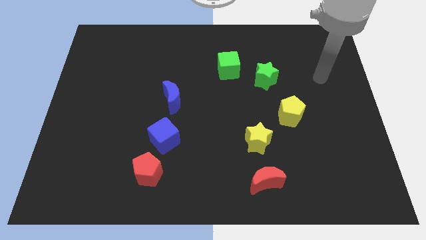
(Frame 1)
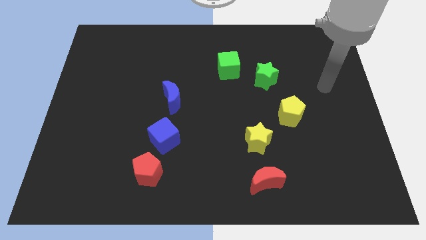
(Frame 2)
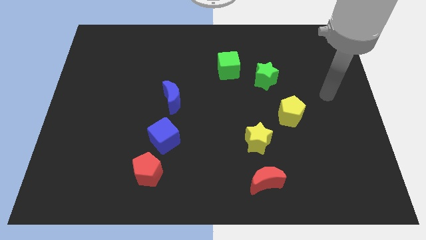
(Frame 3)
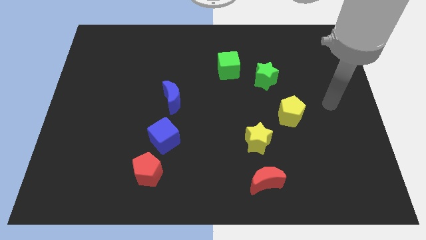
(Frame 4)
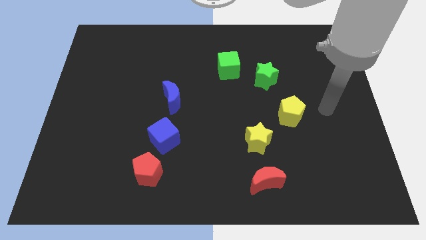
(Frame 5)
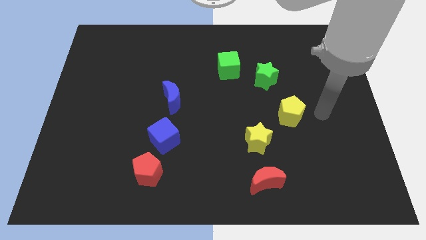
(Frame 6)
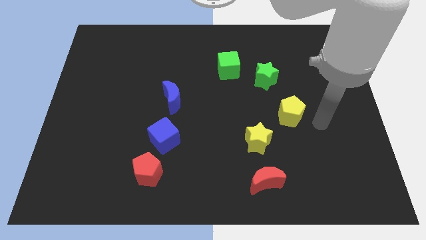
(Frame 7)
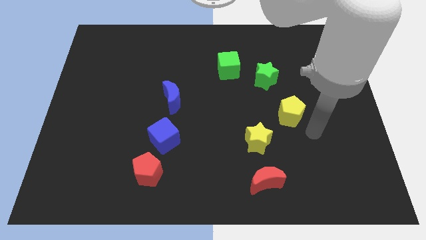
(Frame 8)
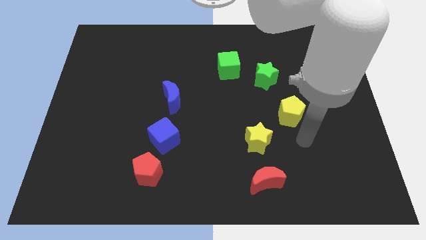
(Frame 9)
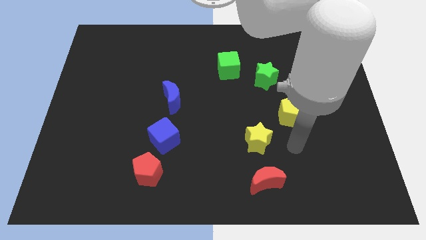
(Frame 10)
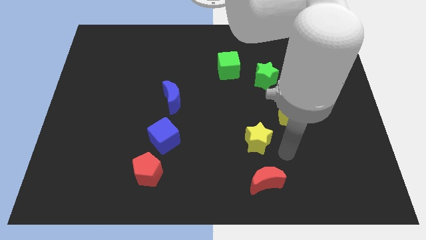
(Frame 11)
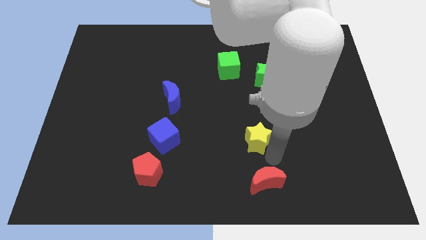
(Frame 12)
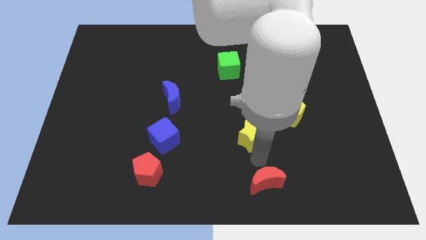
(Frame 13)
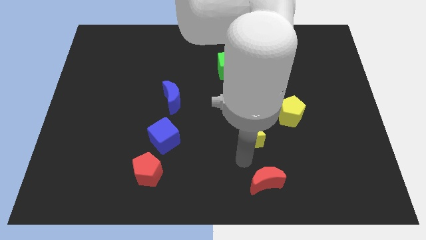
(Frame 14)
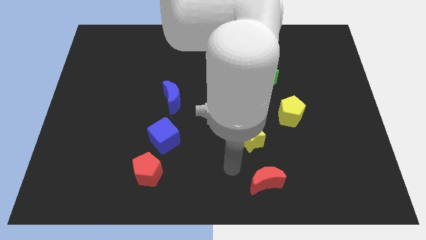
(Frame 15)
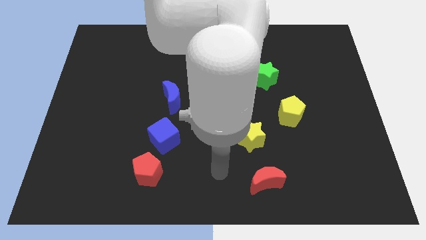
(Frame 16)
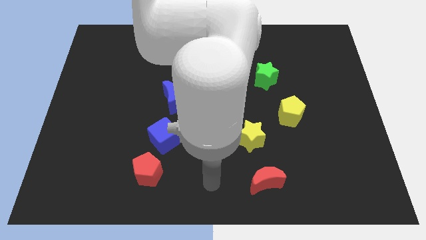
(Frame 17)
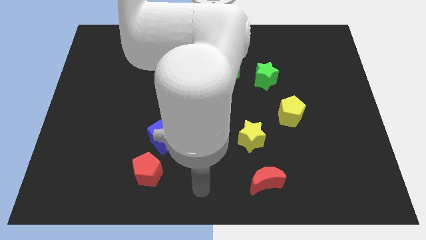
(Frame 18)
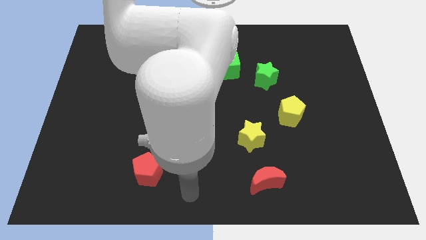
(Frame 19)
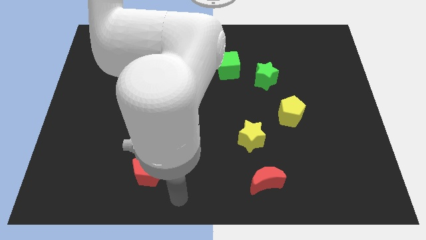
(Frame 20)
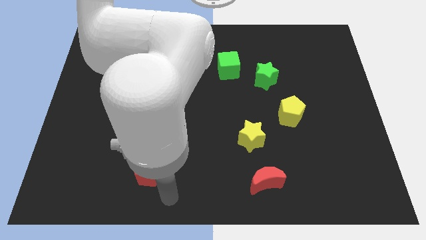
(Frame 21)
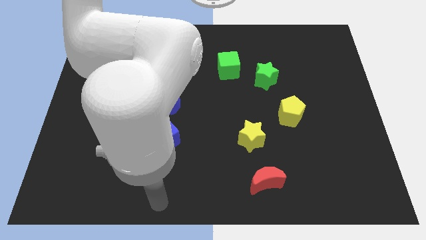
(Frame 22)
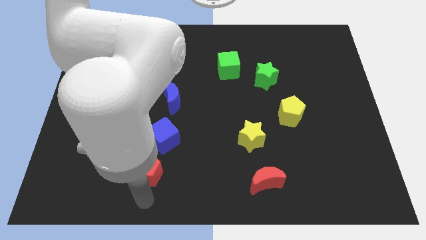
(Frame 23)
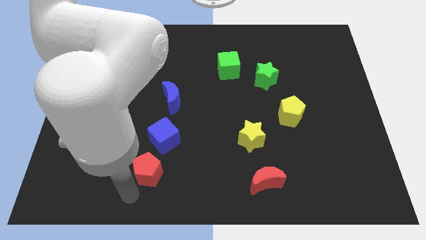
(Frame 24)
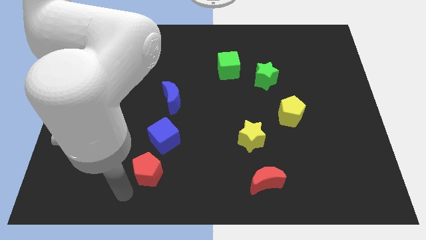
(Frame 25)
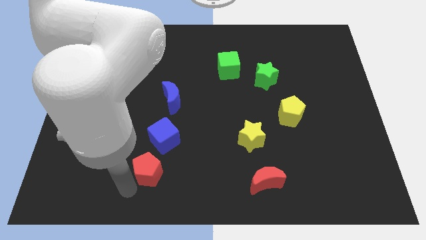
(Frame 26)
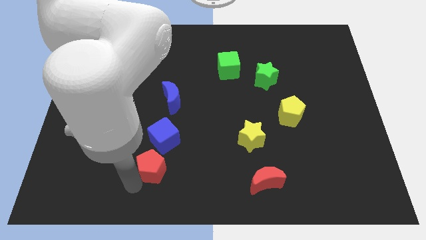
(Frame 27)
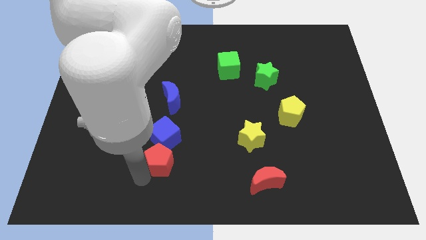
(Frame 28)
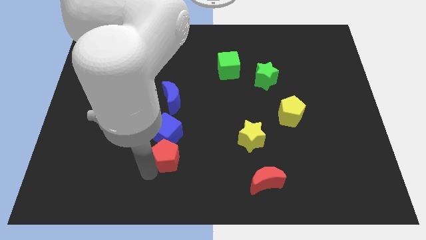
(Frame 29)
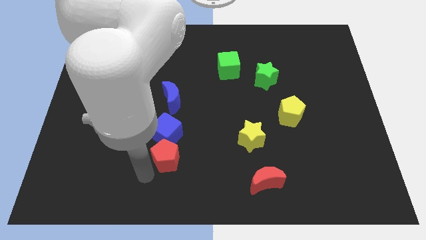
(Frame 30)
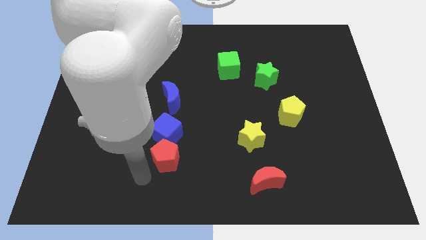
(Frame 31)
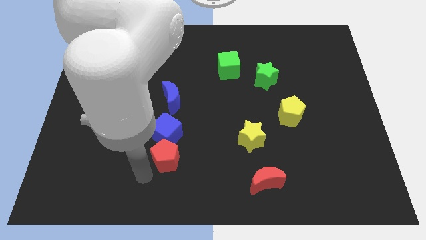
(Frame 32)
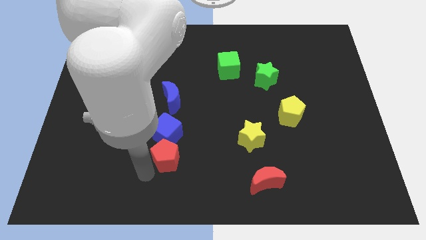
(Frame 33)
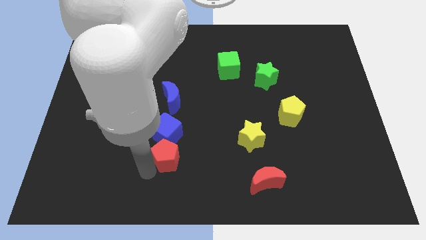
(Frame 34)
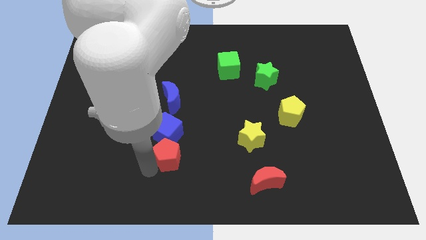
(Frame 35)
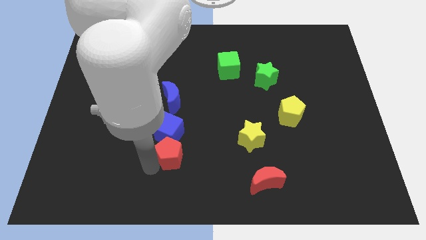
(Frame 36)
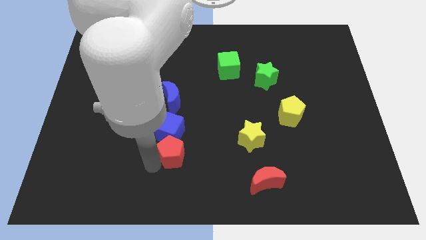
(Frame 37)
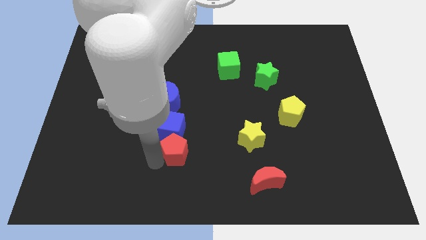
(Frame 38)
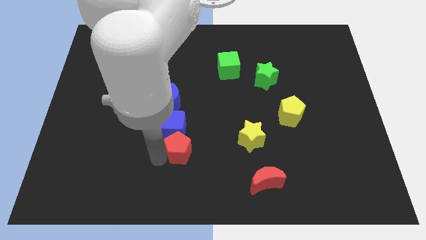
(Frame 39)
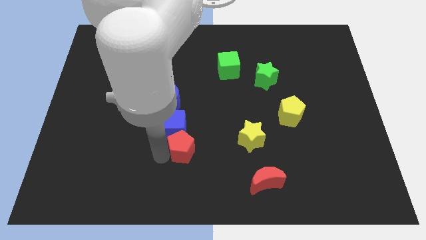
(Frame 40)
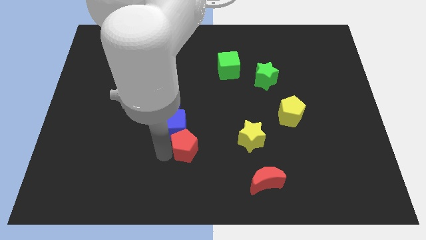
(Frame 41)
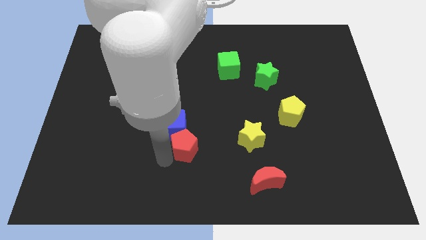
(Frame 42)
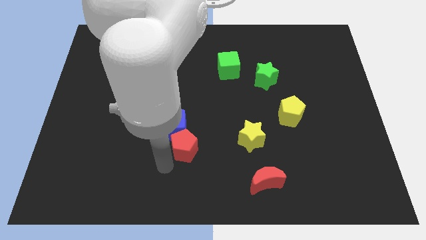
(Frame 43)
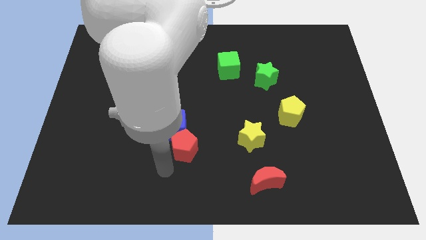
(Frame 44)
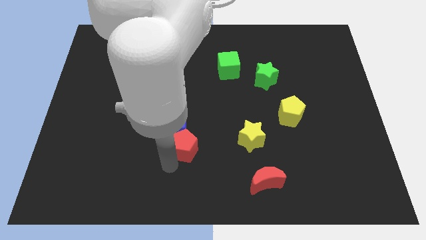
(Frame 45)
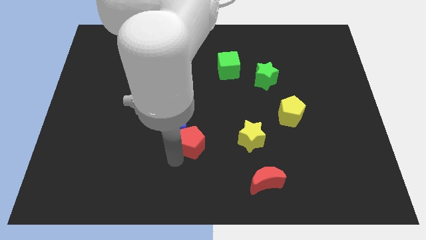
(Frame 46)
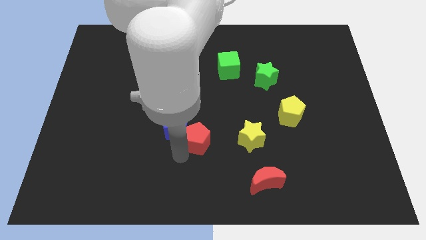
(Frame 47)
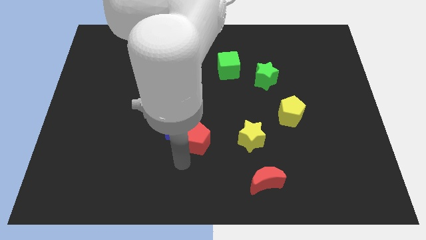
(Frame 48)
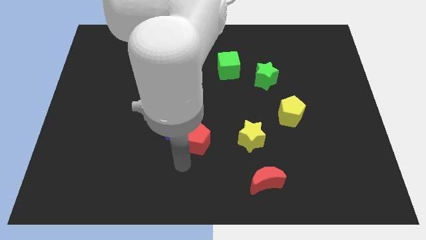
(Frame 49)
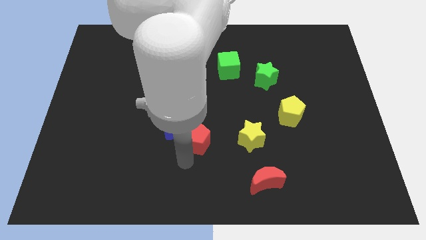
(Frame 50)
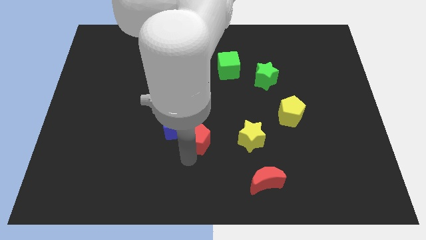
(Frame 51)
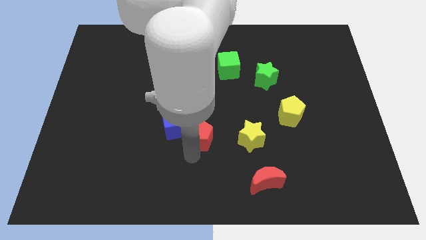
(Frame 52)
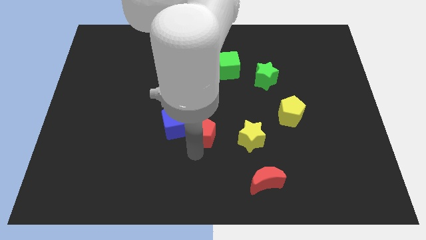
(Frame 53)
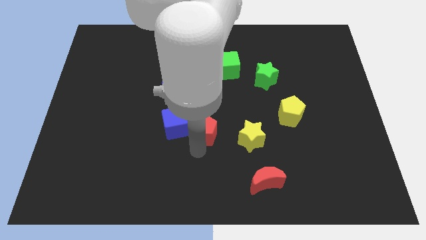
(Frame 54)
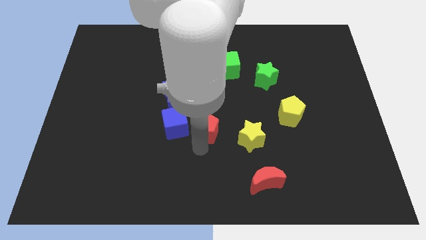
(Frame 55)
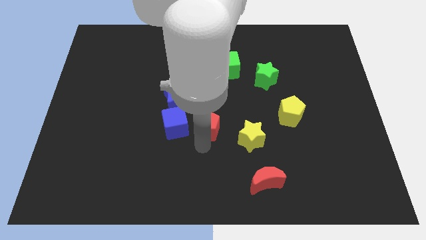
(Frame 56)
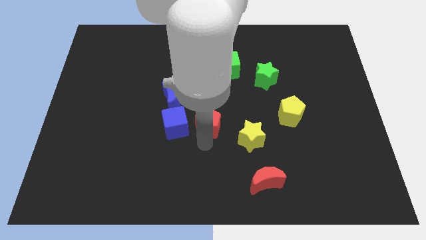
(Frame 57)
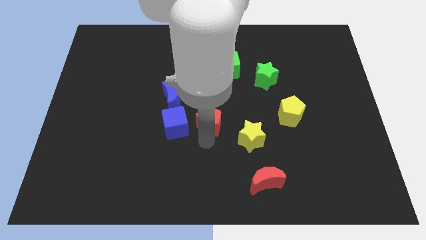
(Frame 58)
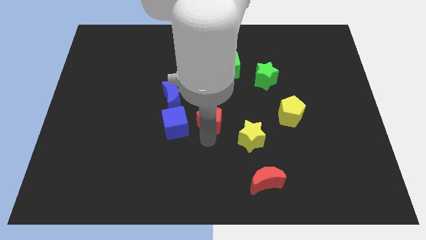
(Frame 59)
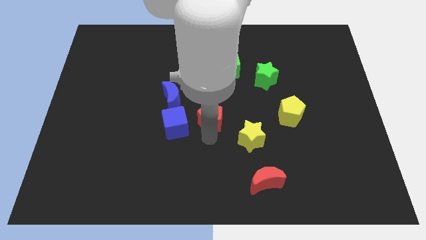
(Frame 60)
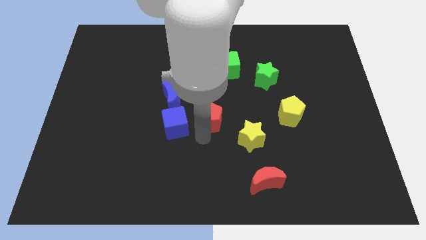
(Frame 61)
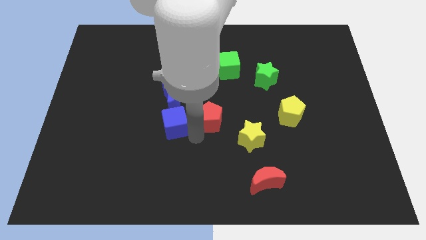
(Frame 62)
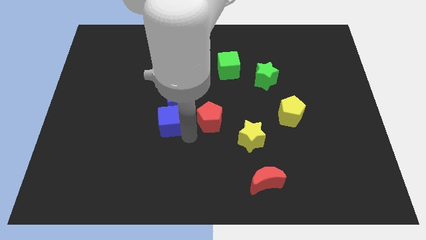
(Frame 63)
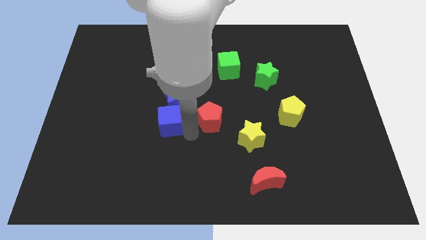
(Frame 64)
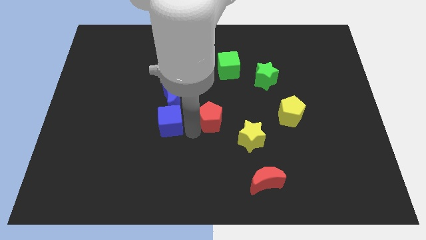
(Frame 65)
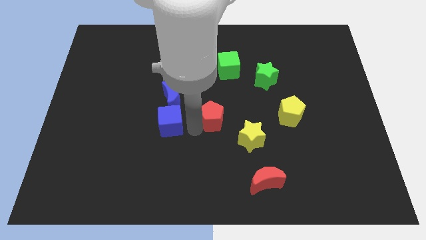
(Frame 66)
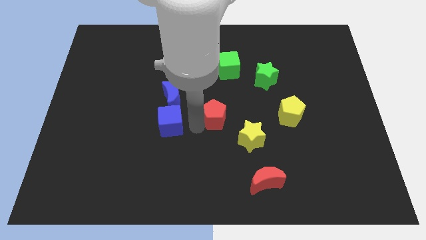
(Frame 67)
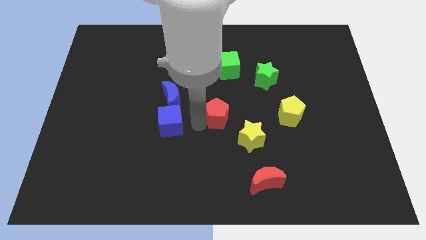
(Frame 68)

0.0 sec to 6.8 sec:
move the red pentagon upwards and right

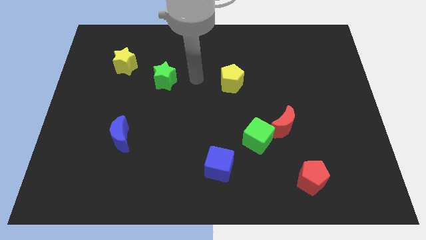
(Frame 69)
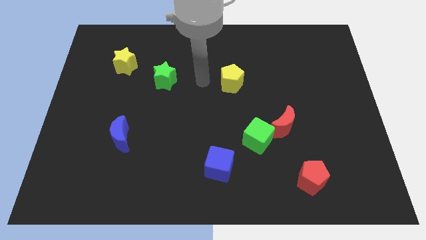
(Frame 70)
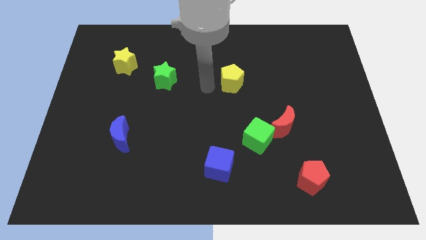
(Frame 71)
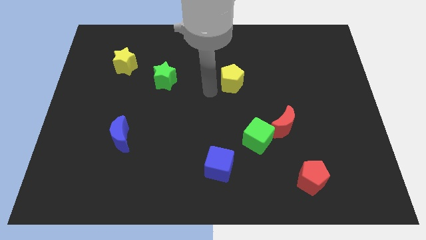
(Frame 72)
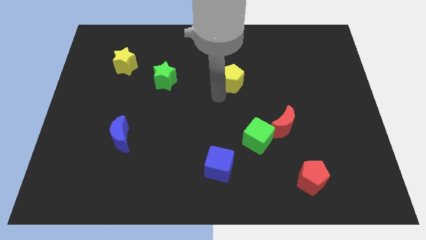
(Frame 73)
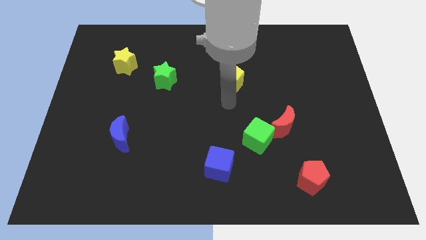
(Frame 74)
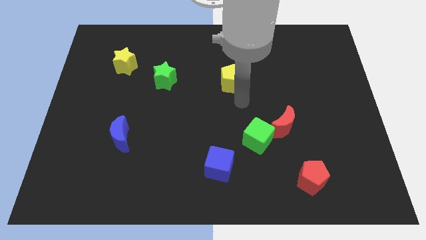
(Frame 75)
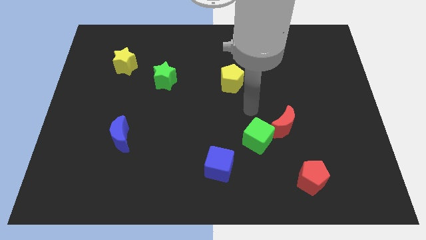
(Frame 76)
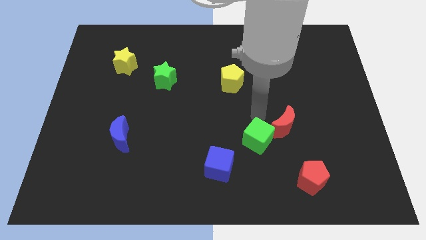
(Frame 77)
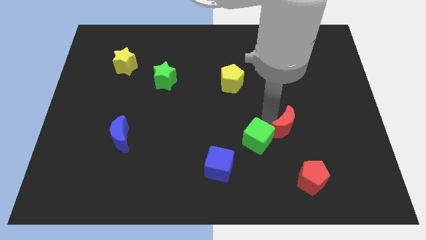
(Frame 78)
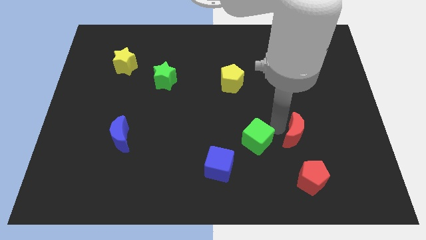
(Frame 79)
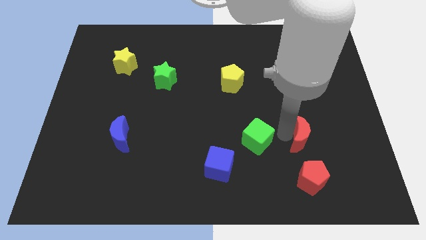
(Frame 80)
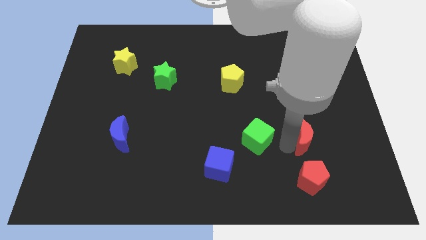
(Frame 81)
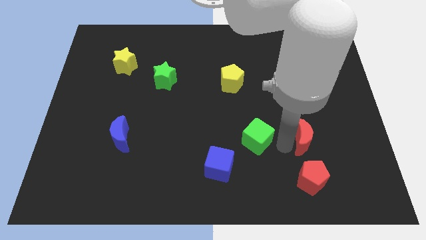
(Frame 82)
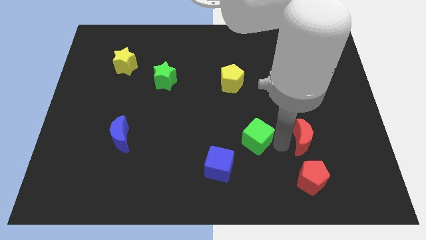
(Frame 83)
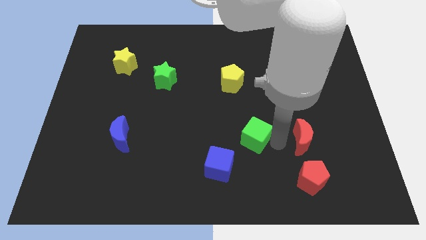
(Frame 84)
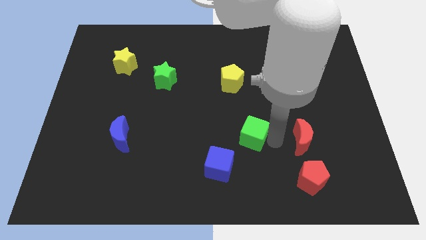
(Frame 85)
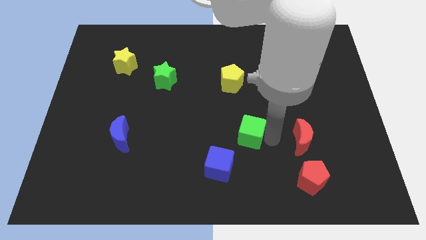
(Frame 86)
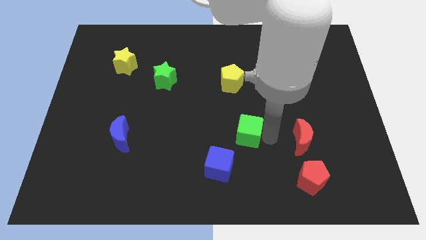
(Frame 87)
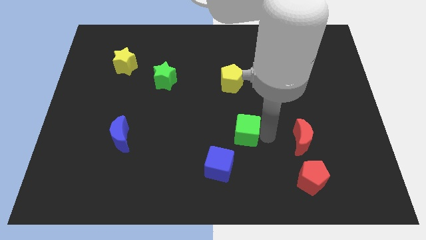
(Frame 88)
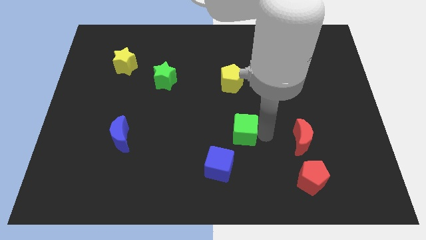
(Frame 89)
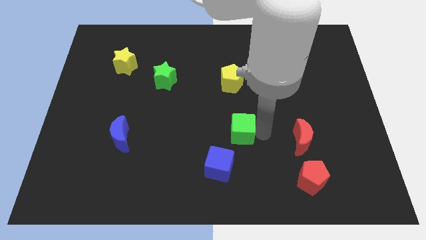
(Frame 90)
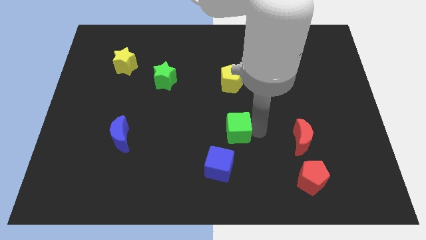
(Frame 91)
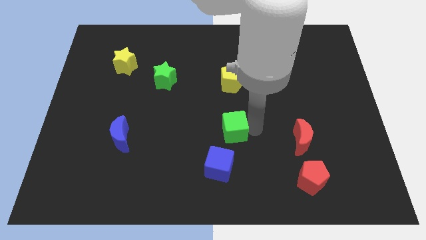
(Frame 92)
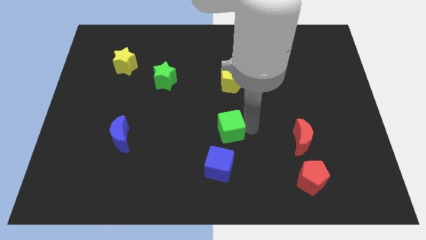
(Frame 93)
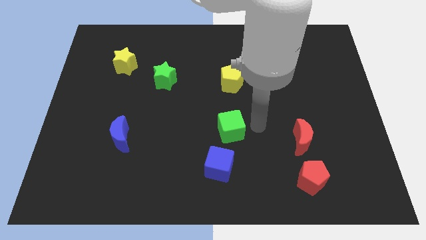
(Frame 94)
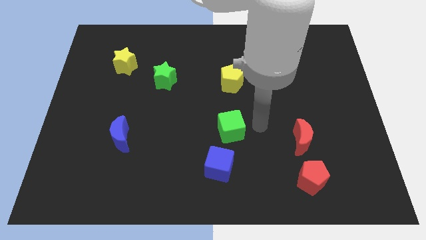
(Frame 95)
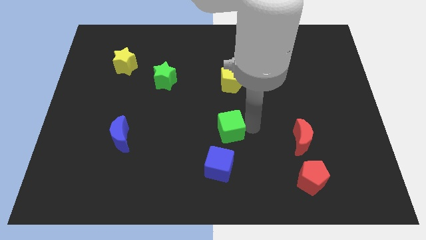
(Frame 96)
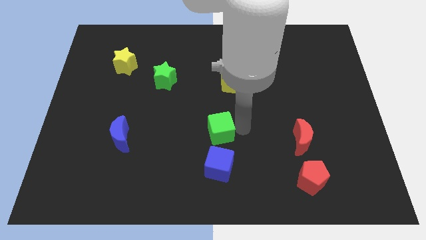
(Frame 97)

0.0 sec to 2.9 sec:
slightly push the green cube to the left
